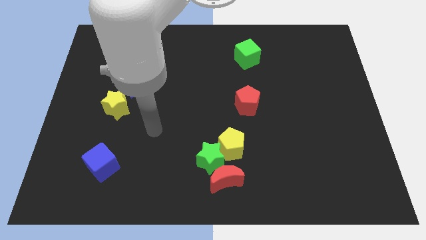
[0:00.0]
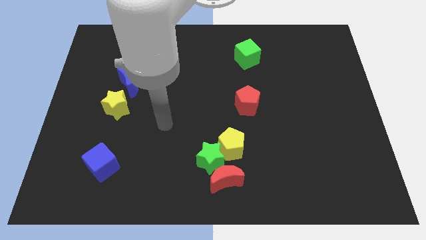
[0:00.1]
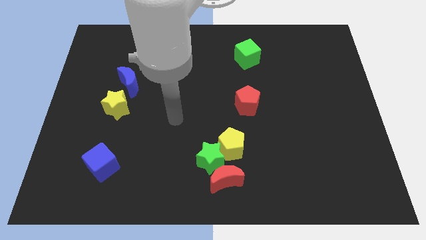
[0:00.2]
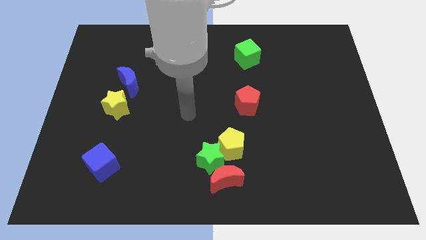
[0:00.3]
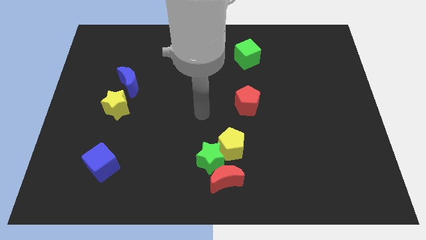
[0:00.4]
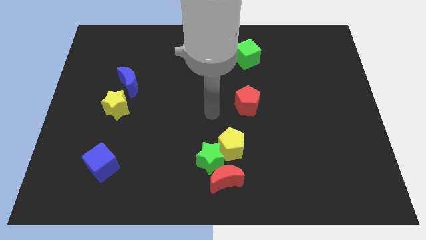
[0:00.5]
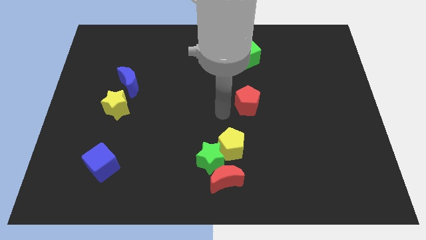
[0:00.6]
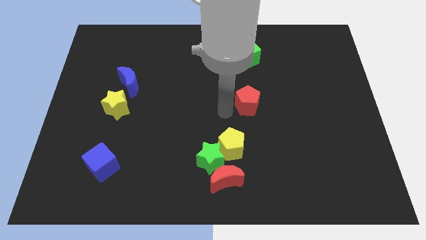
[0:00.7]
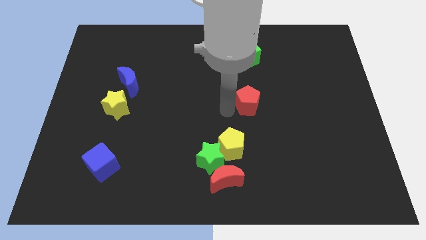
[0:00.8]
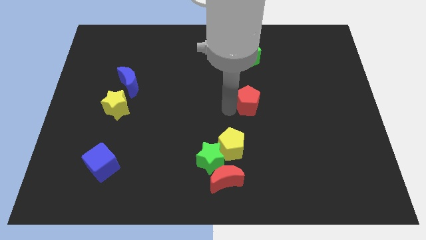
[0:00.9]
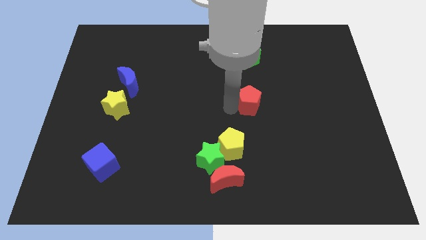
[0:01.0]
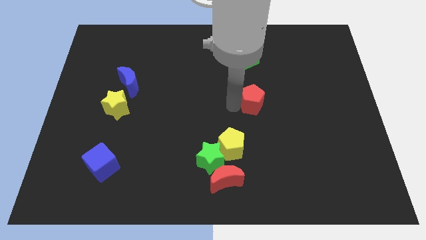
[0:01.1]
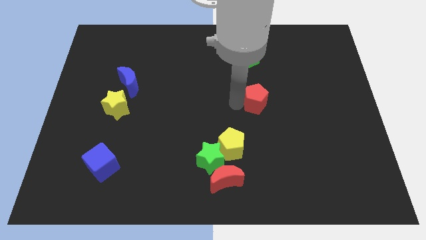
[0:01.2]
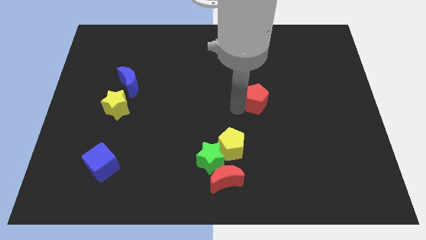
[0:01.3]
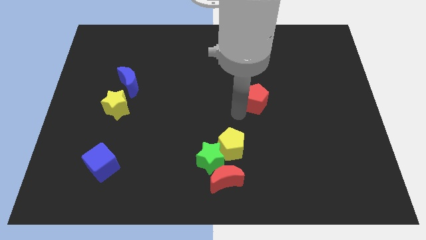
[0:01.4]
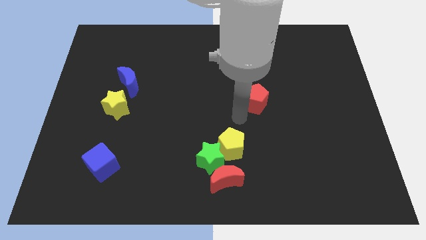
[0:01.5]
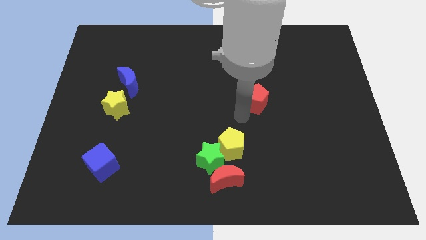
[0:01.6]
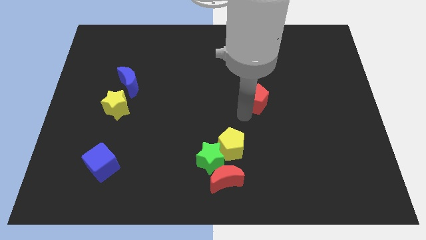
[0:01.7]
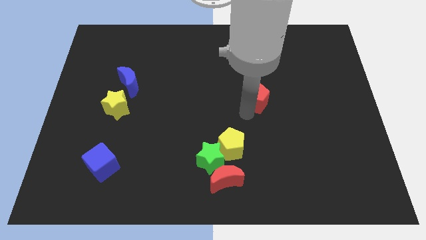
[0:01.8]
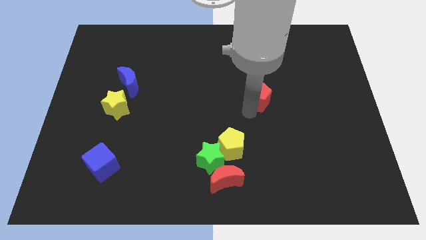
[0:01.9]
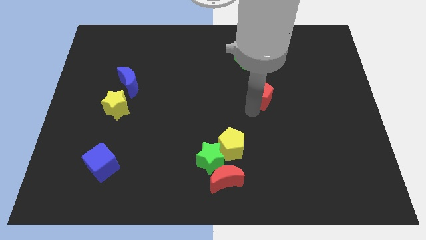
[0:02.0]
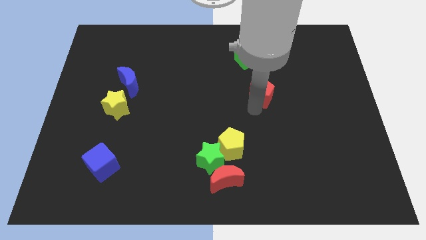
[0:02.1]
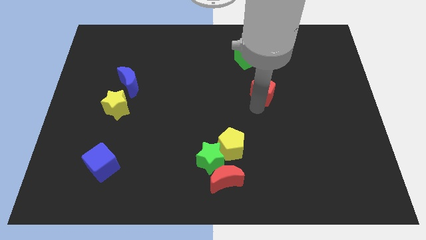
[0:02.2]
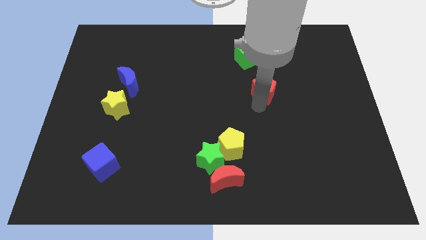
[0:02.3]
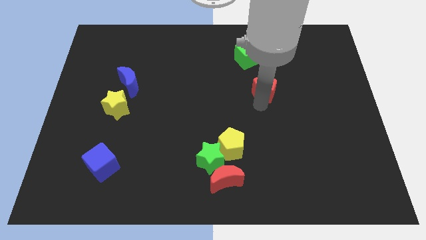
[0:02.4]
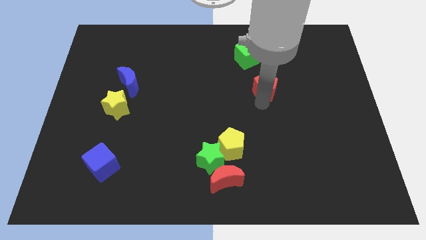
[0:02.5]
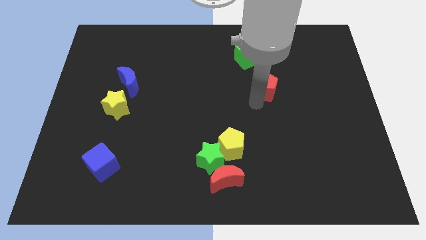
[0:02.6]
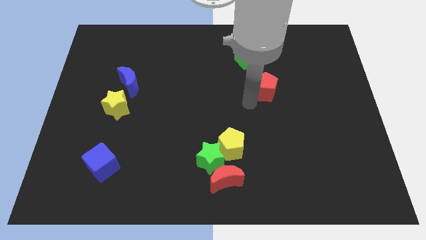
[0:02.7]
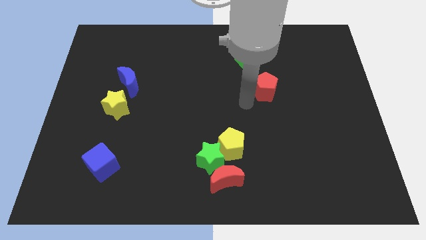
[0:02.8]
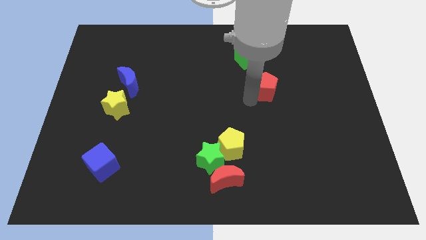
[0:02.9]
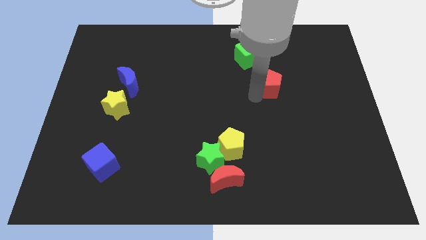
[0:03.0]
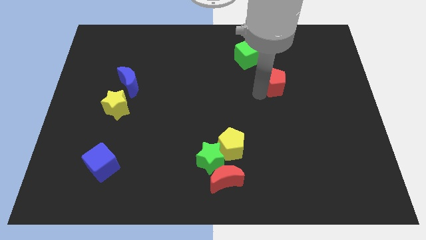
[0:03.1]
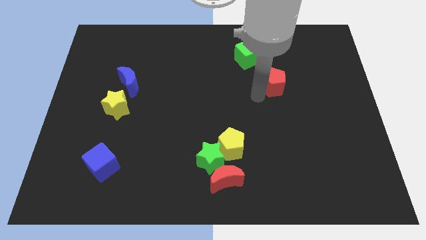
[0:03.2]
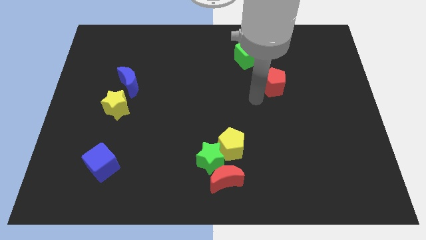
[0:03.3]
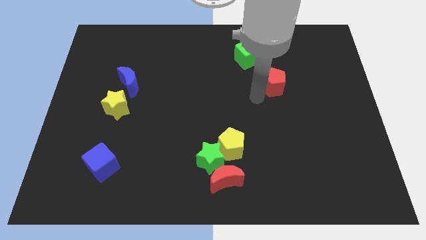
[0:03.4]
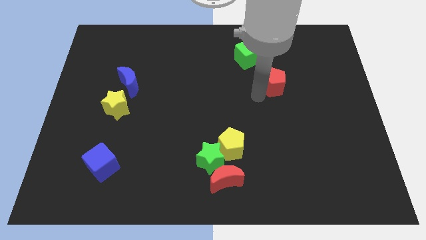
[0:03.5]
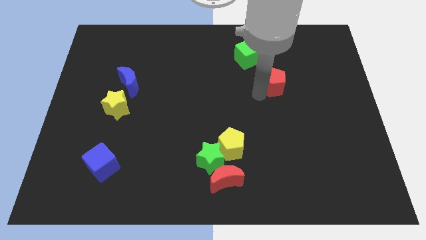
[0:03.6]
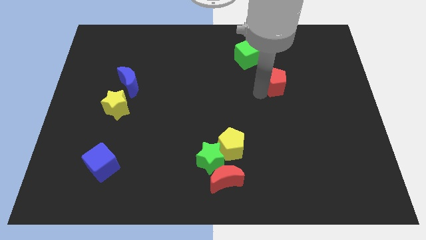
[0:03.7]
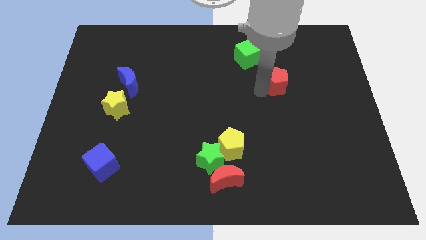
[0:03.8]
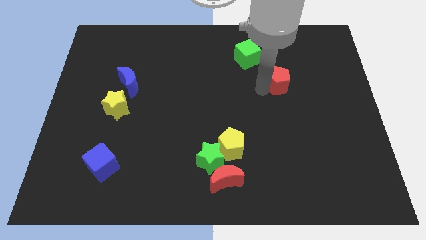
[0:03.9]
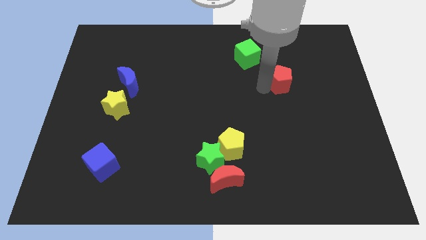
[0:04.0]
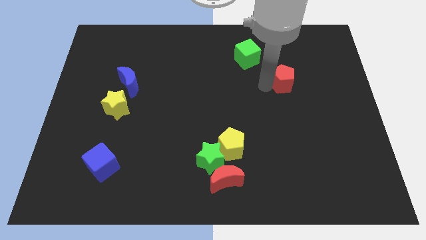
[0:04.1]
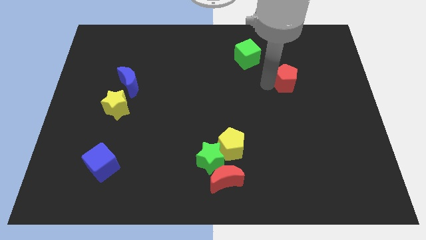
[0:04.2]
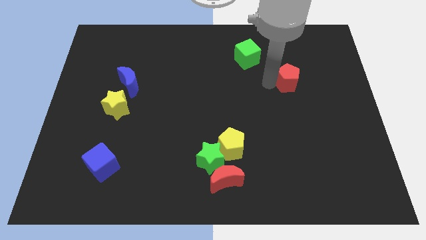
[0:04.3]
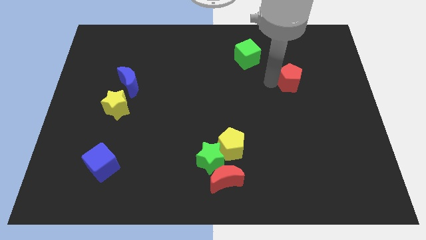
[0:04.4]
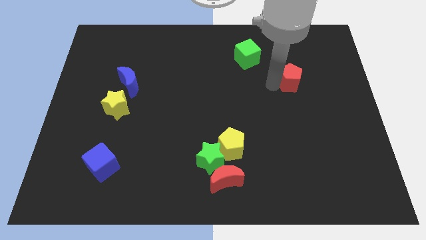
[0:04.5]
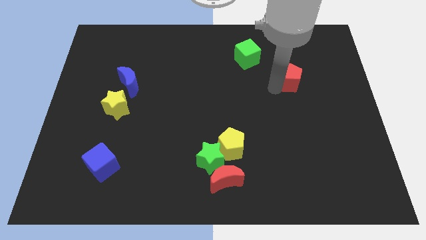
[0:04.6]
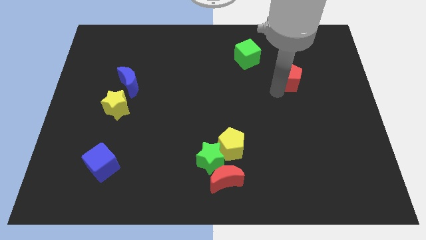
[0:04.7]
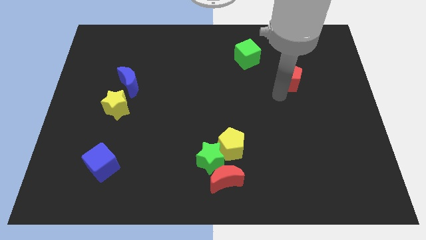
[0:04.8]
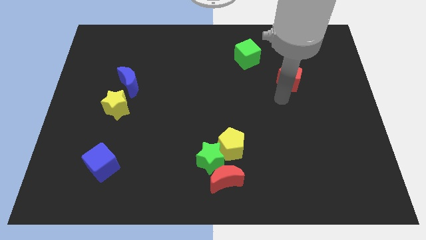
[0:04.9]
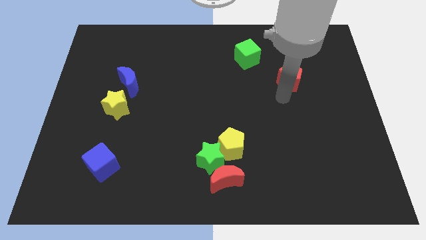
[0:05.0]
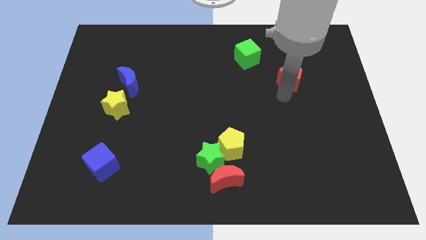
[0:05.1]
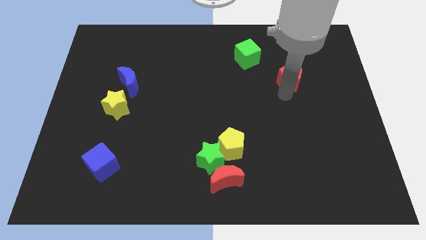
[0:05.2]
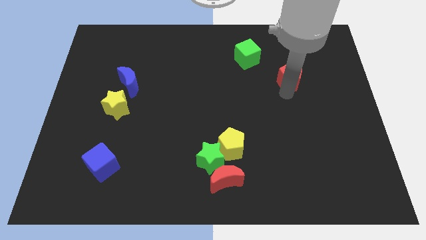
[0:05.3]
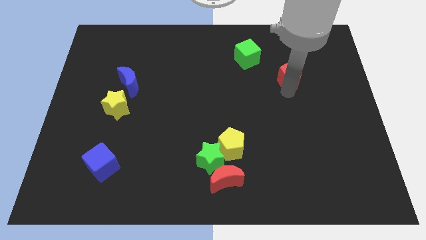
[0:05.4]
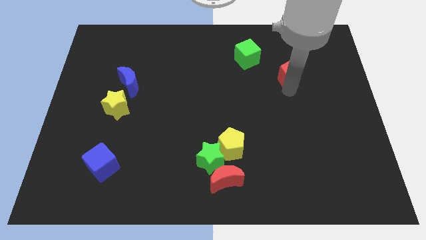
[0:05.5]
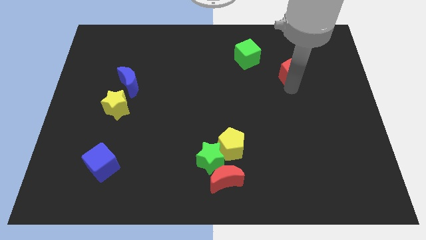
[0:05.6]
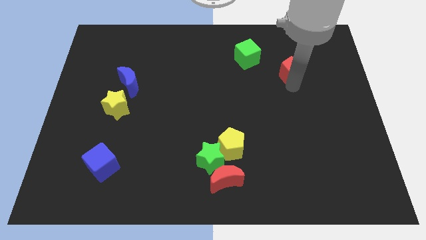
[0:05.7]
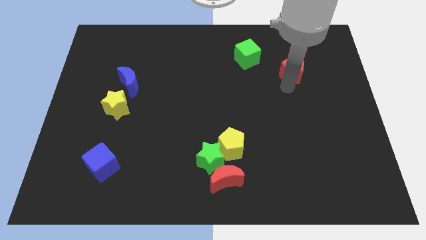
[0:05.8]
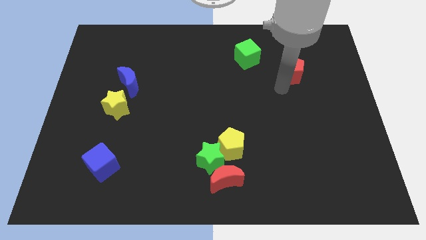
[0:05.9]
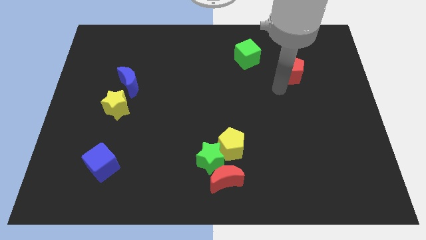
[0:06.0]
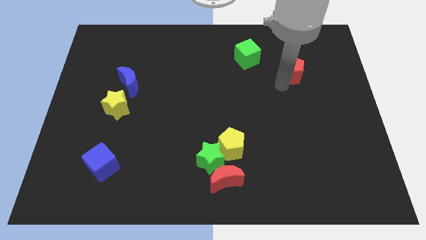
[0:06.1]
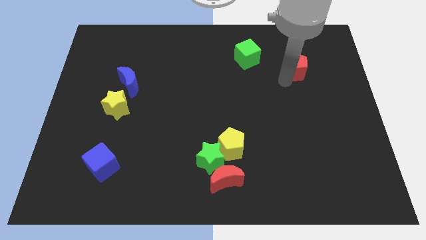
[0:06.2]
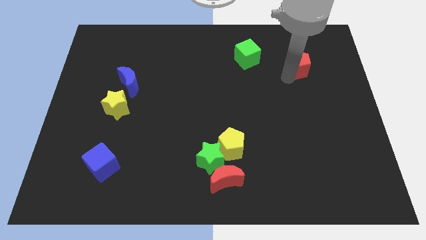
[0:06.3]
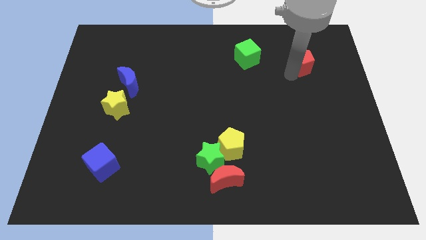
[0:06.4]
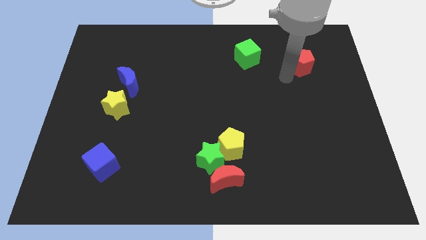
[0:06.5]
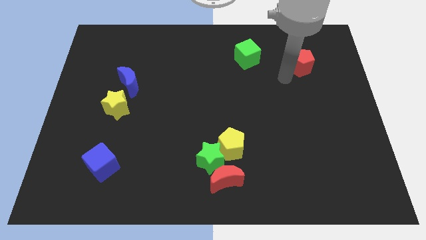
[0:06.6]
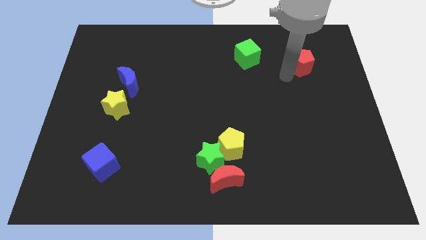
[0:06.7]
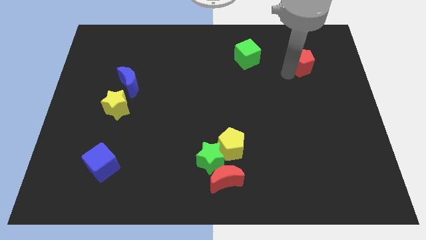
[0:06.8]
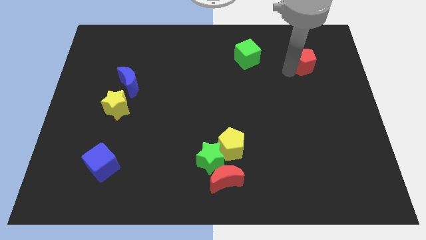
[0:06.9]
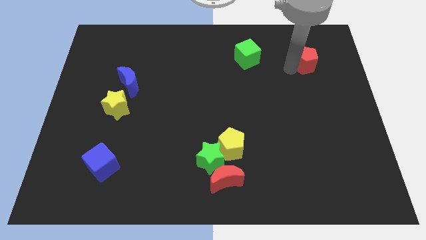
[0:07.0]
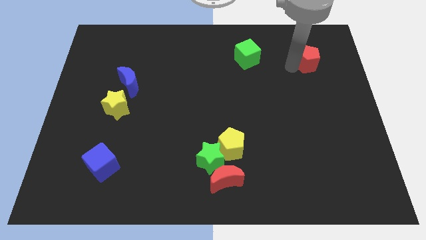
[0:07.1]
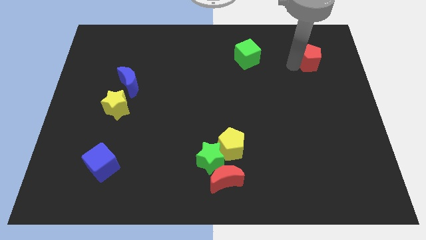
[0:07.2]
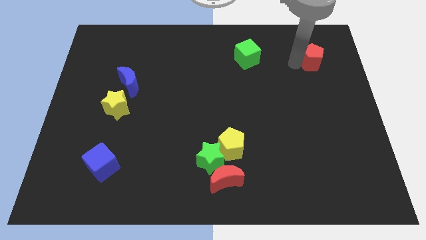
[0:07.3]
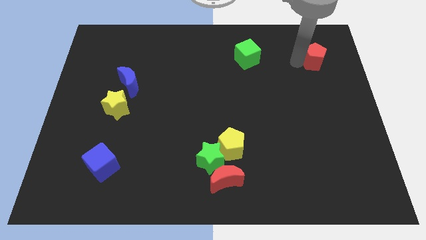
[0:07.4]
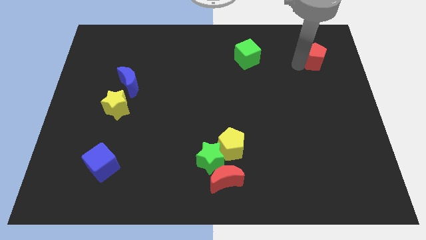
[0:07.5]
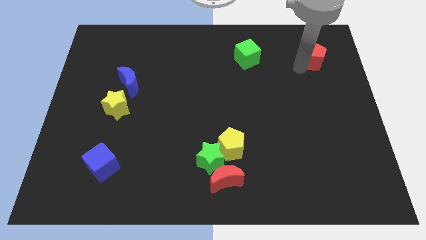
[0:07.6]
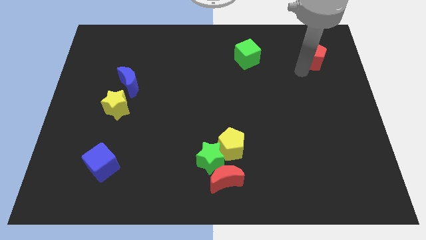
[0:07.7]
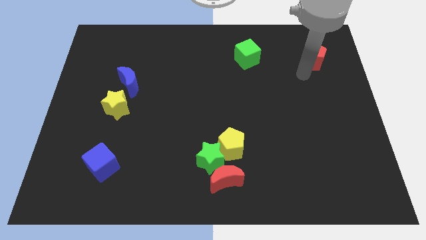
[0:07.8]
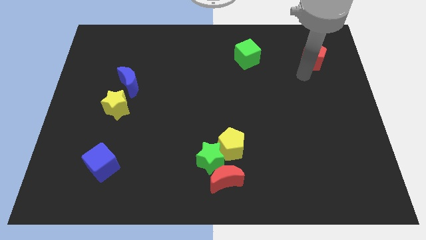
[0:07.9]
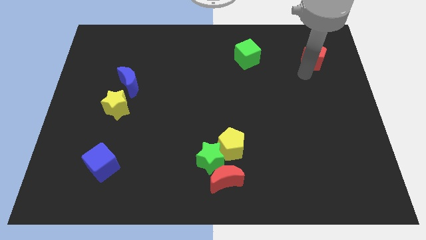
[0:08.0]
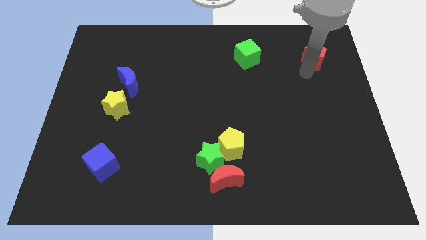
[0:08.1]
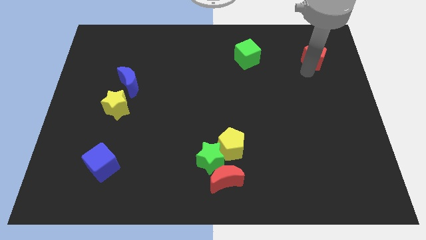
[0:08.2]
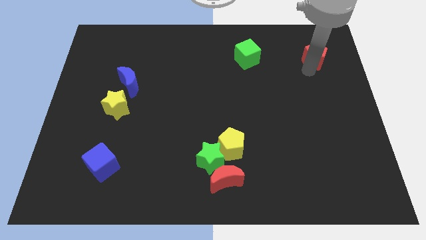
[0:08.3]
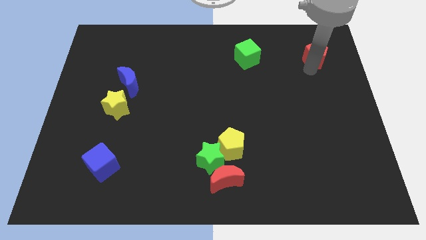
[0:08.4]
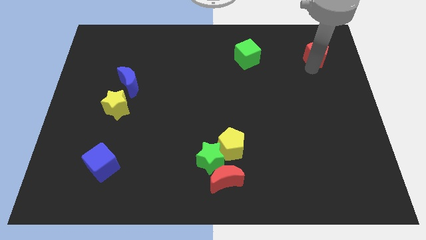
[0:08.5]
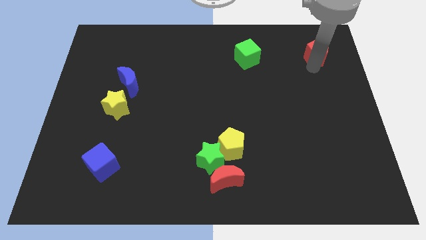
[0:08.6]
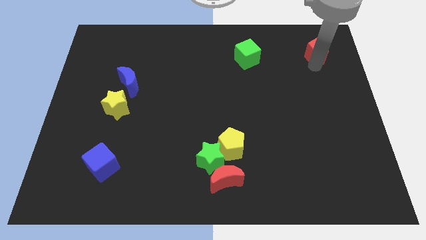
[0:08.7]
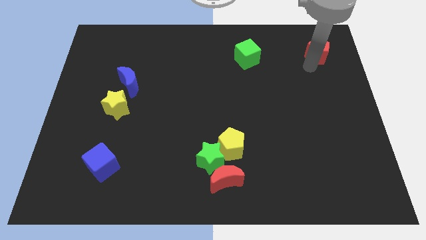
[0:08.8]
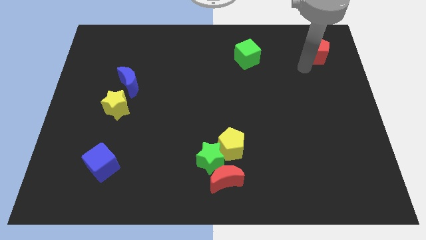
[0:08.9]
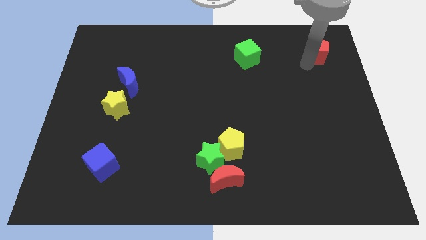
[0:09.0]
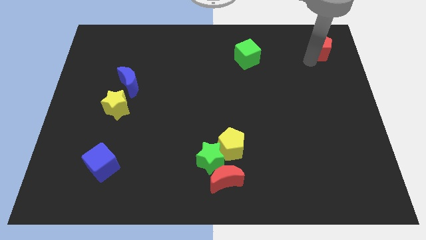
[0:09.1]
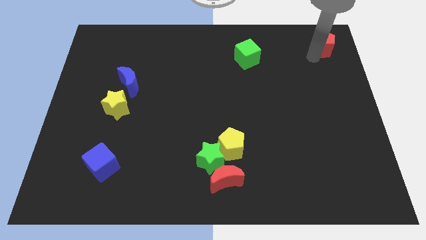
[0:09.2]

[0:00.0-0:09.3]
put the red pentagon to the top right corner
